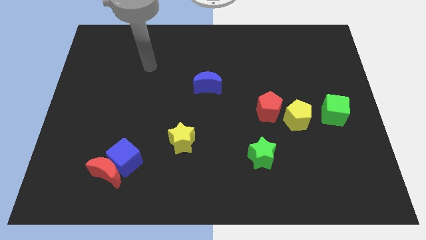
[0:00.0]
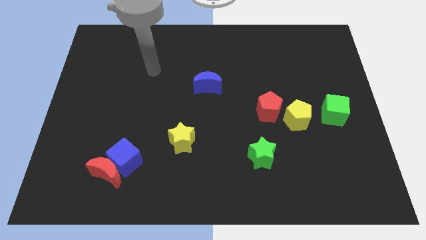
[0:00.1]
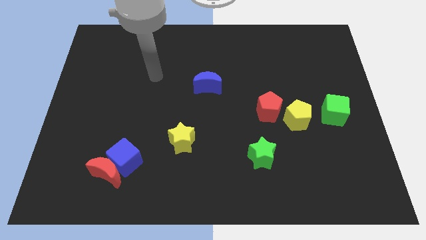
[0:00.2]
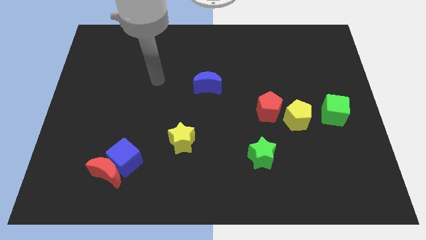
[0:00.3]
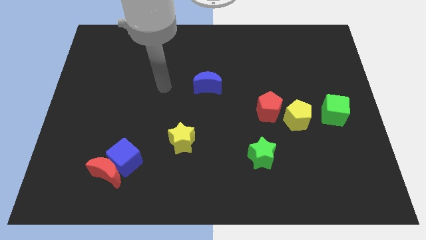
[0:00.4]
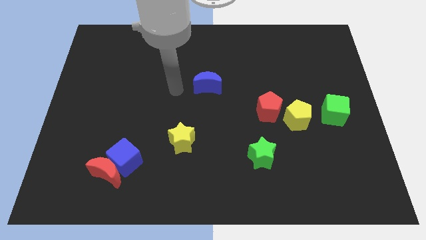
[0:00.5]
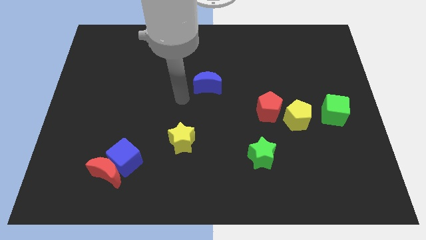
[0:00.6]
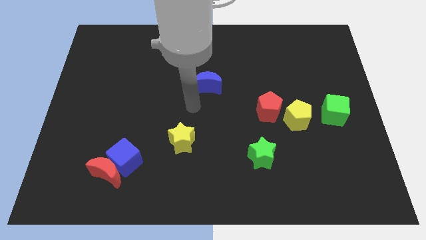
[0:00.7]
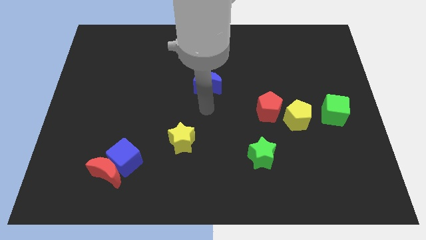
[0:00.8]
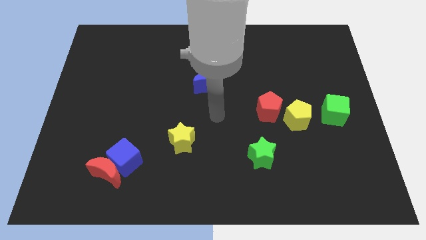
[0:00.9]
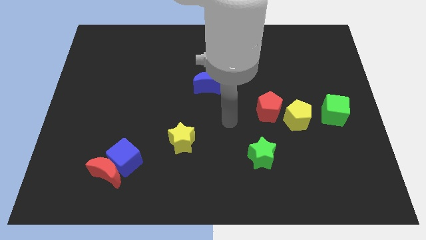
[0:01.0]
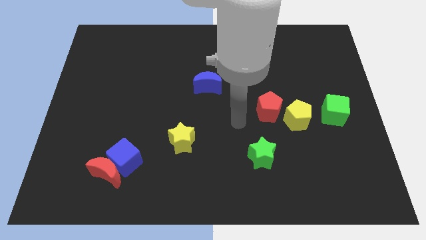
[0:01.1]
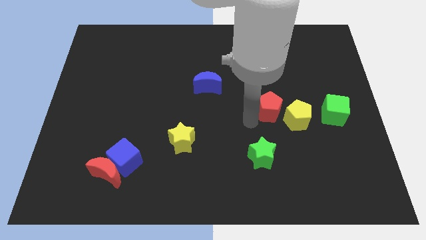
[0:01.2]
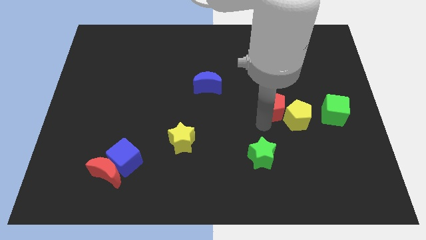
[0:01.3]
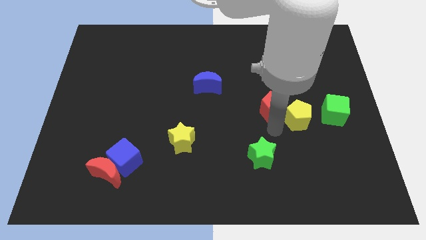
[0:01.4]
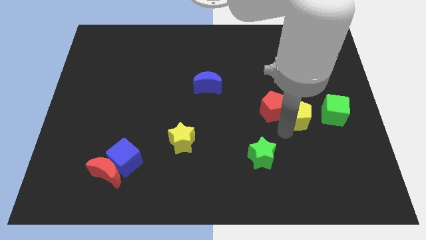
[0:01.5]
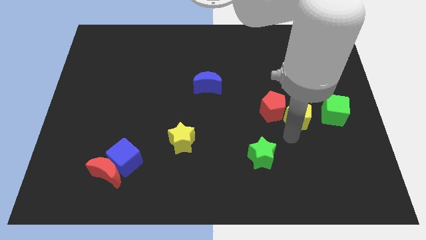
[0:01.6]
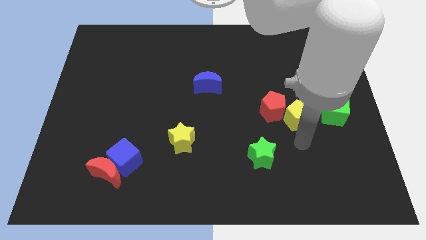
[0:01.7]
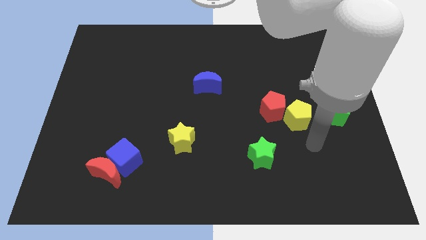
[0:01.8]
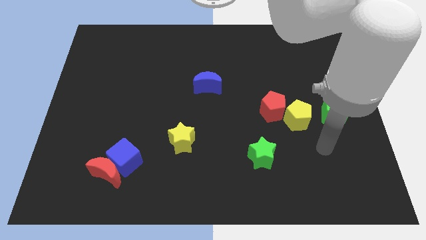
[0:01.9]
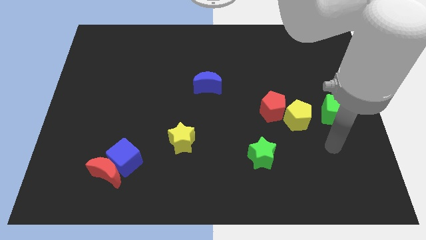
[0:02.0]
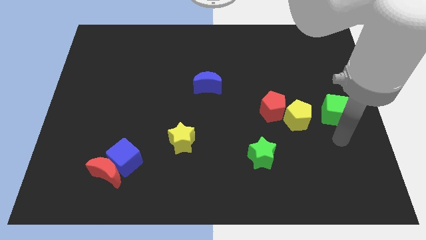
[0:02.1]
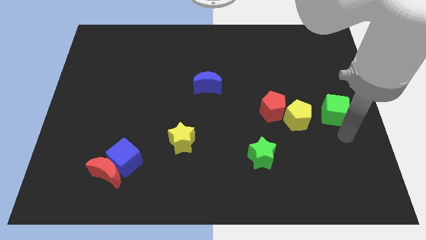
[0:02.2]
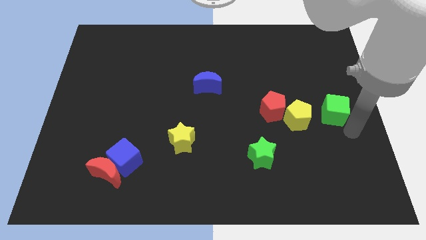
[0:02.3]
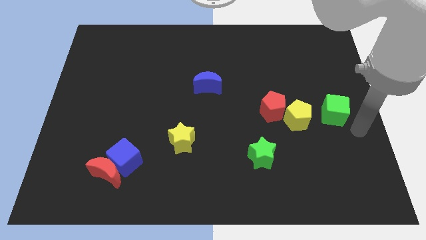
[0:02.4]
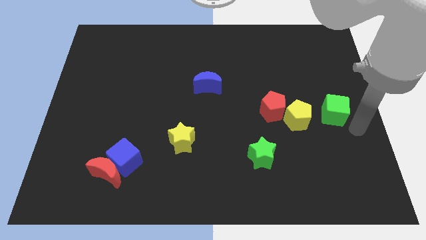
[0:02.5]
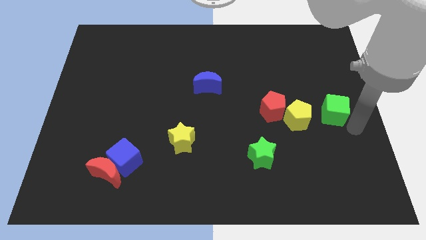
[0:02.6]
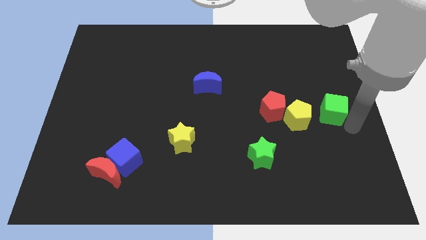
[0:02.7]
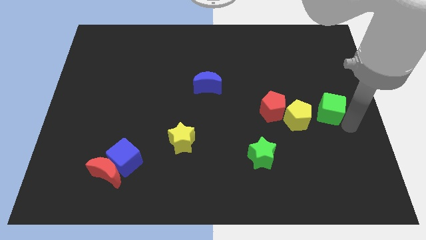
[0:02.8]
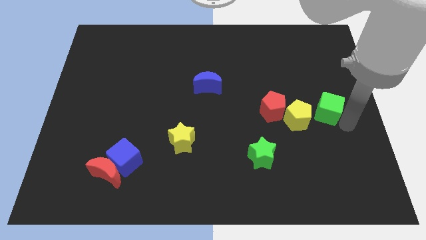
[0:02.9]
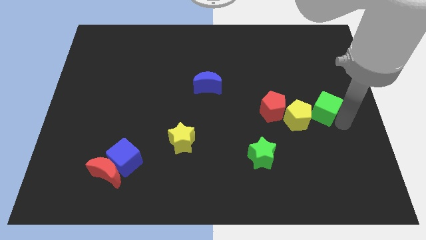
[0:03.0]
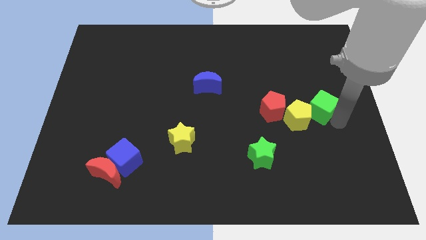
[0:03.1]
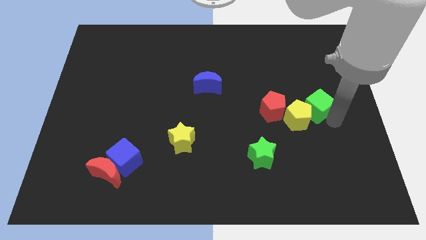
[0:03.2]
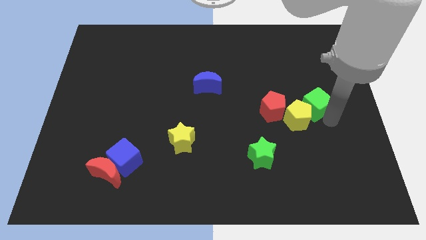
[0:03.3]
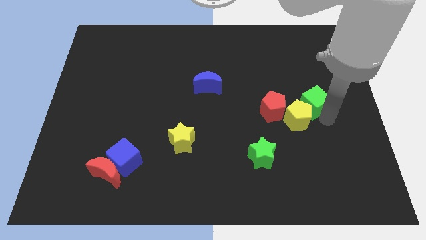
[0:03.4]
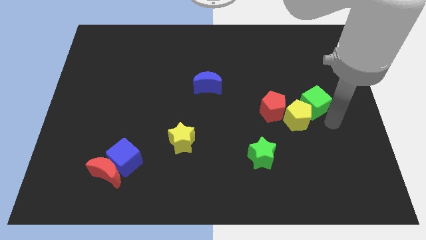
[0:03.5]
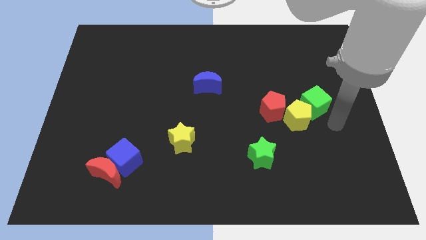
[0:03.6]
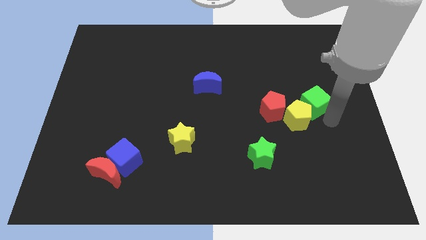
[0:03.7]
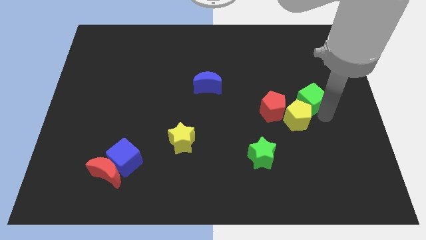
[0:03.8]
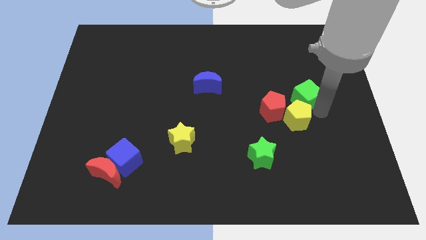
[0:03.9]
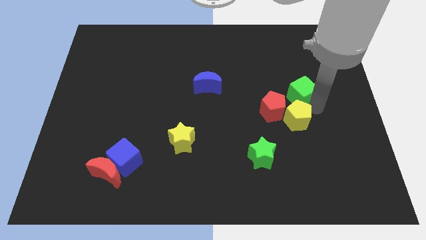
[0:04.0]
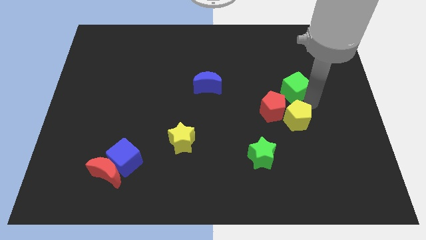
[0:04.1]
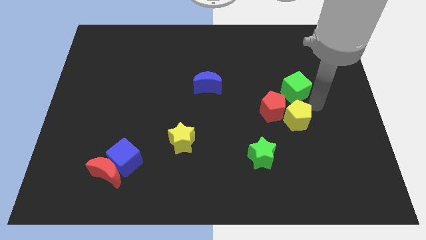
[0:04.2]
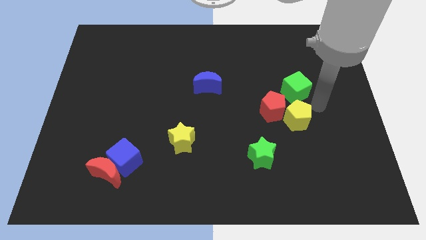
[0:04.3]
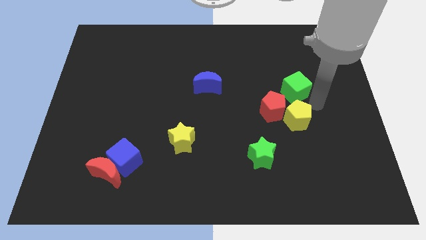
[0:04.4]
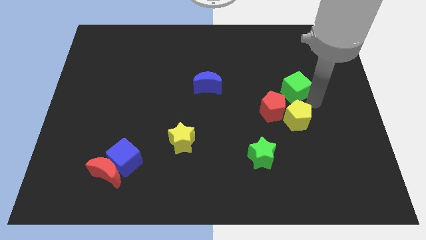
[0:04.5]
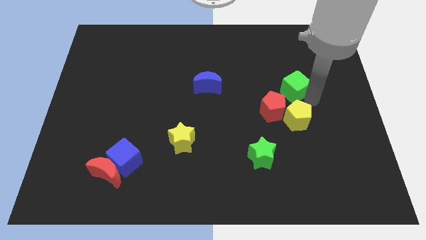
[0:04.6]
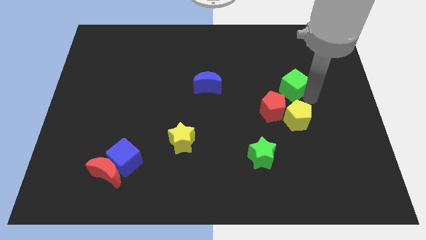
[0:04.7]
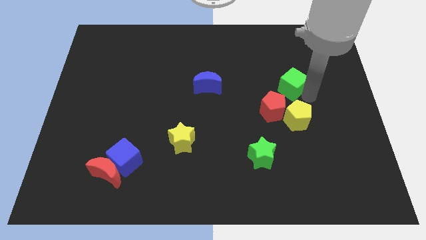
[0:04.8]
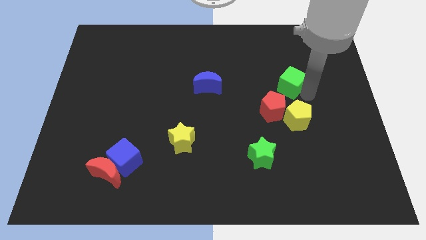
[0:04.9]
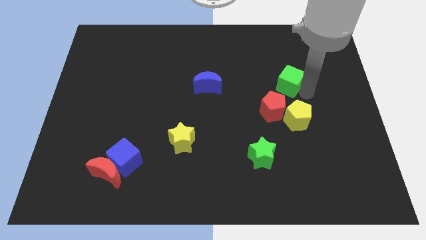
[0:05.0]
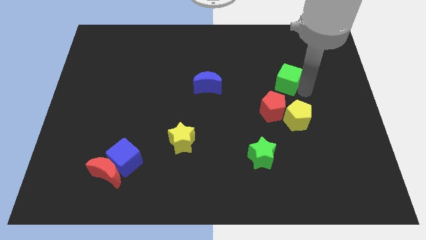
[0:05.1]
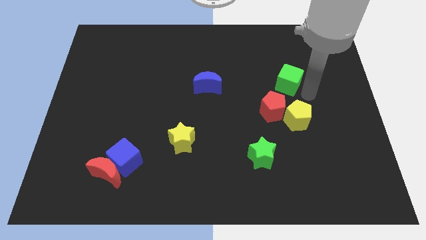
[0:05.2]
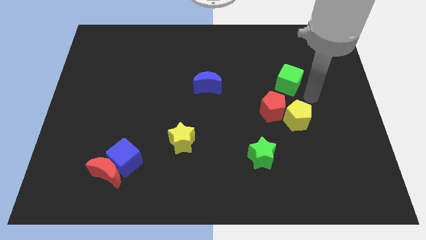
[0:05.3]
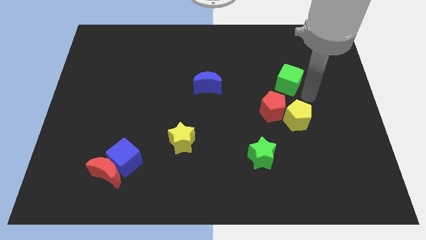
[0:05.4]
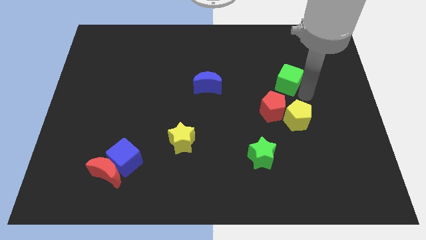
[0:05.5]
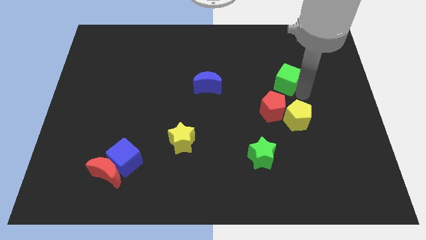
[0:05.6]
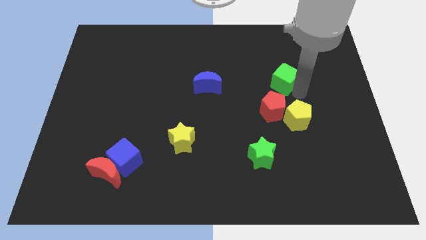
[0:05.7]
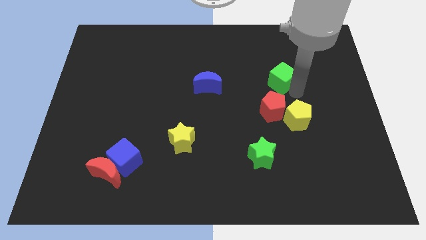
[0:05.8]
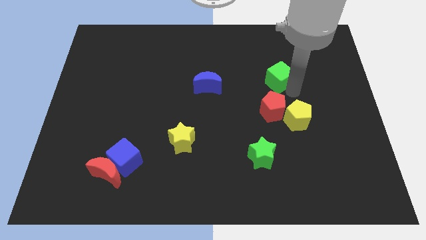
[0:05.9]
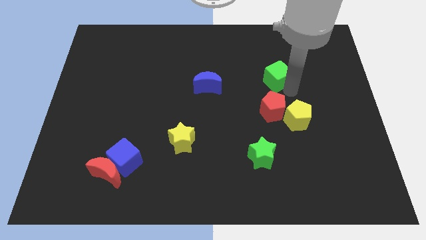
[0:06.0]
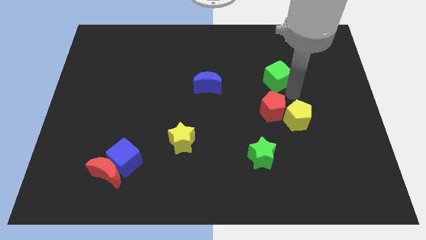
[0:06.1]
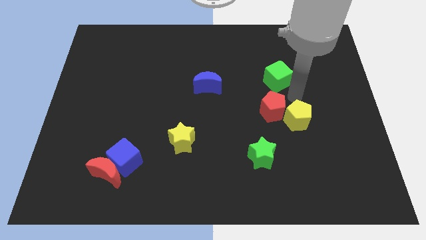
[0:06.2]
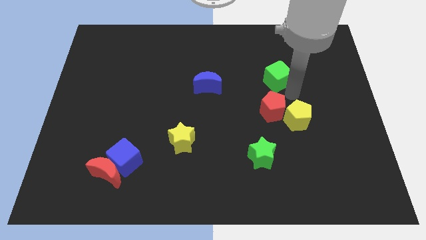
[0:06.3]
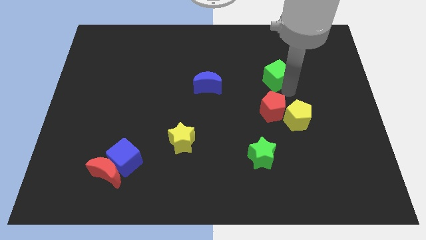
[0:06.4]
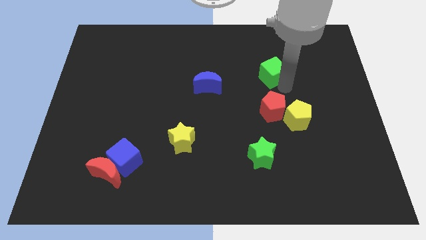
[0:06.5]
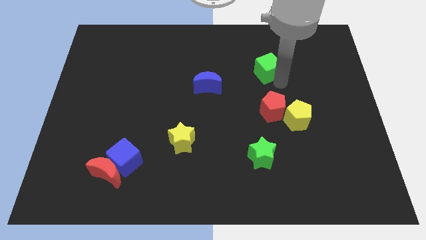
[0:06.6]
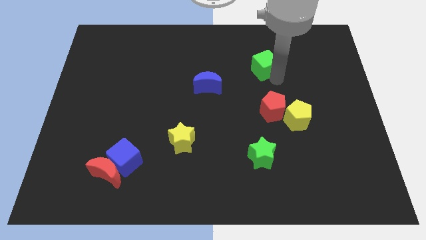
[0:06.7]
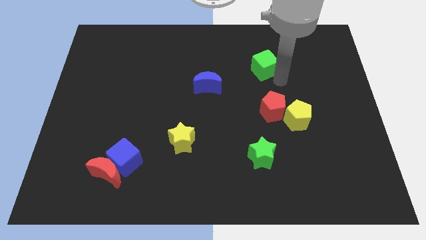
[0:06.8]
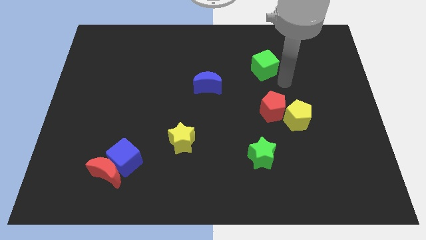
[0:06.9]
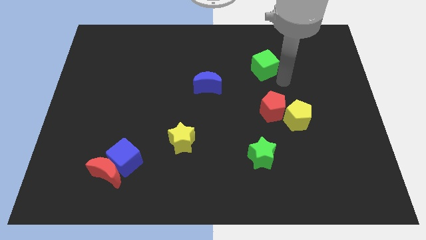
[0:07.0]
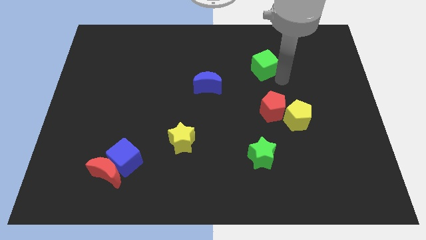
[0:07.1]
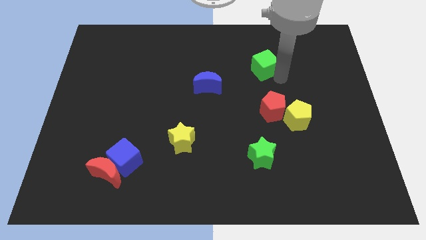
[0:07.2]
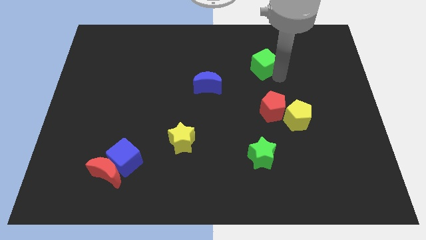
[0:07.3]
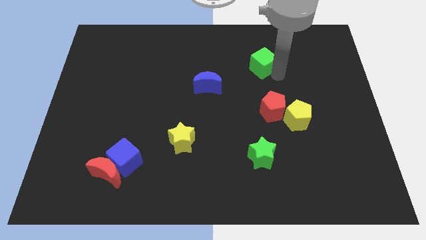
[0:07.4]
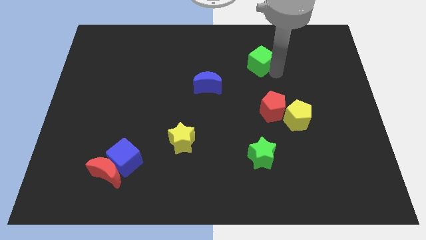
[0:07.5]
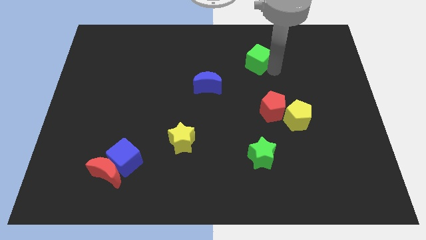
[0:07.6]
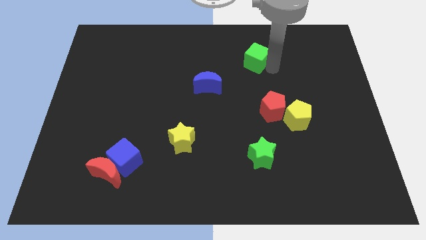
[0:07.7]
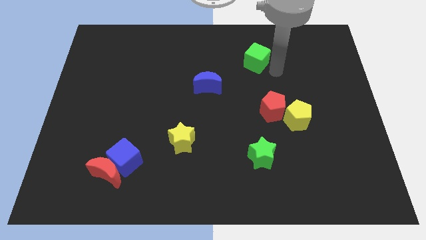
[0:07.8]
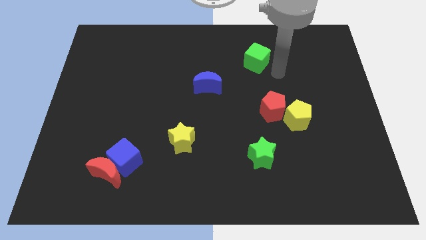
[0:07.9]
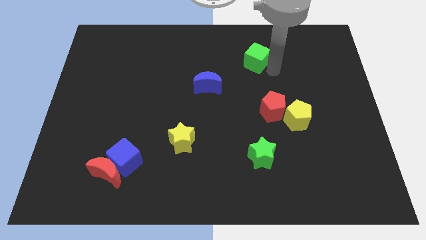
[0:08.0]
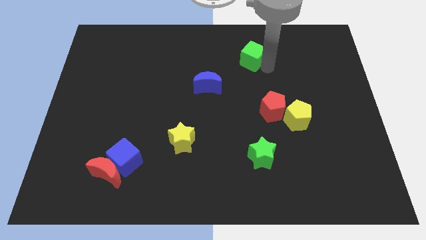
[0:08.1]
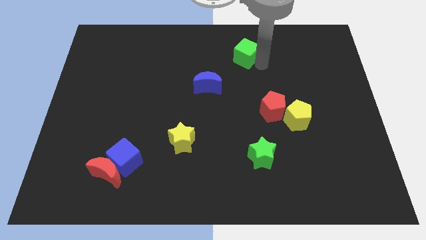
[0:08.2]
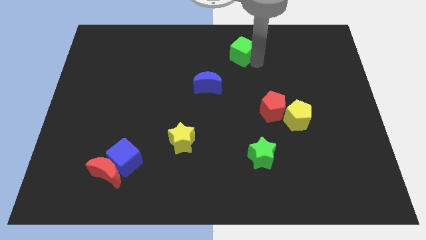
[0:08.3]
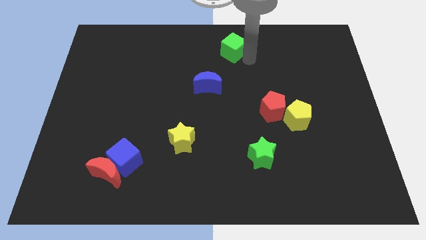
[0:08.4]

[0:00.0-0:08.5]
push the green cube to the top side
